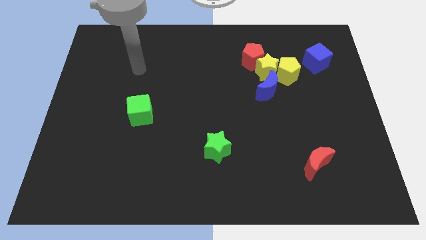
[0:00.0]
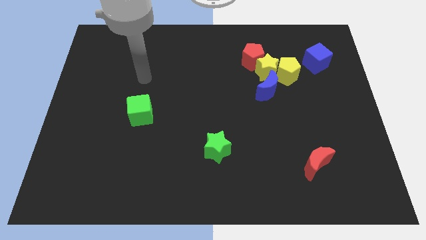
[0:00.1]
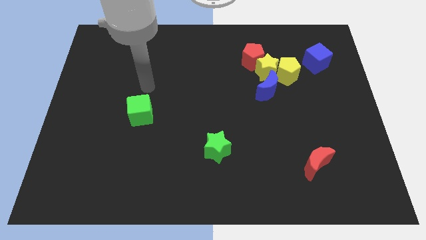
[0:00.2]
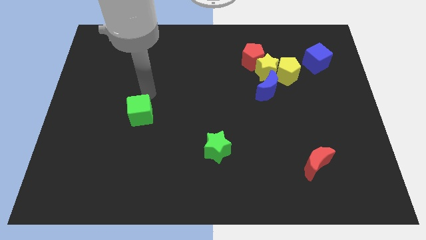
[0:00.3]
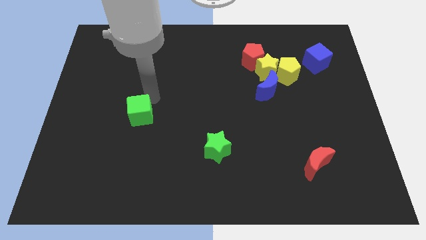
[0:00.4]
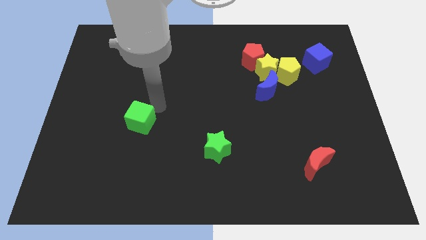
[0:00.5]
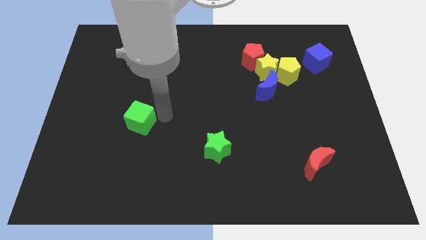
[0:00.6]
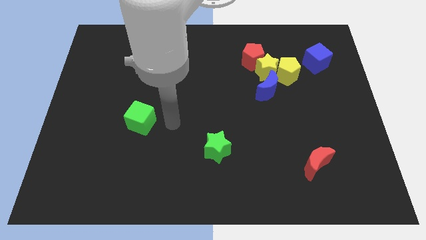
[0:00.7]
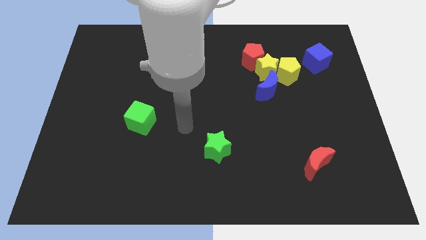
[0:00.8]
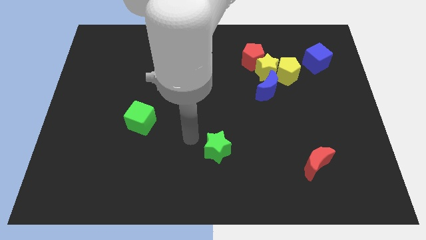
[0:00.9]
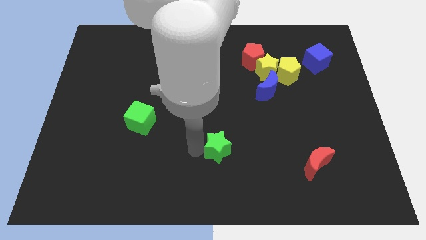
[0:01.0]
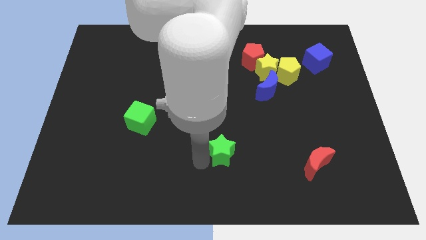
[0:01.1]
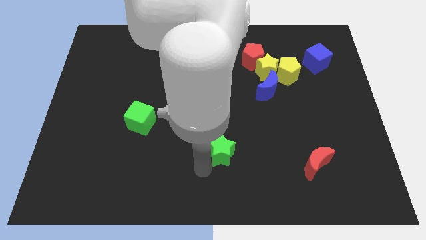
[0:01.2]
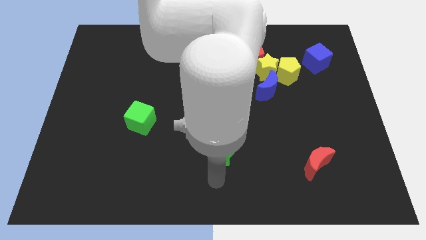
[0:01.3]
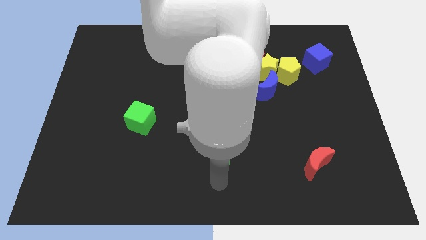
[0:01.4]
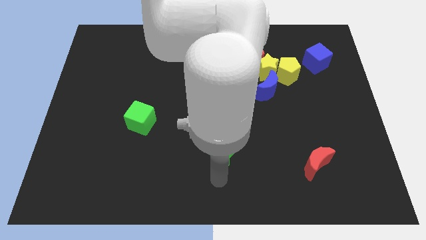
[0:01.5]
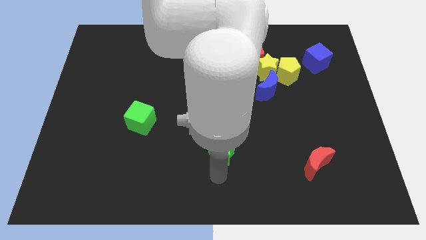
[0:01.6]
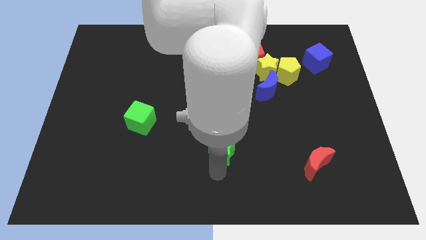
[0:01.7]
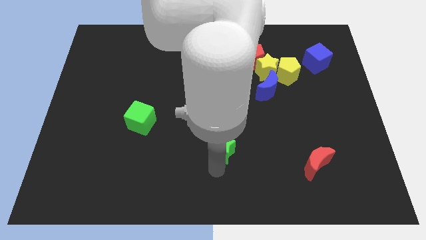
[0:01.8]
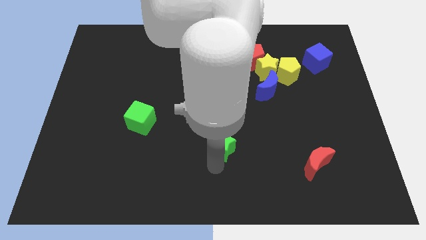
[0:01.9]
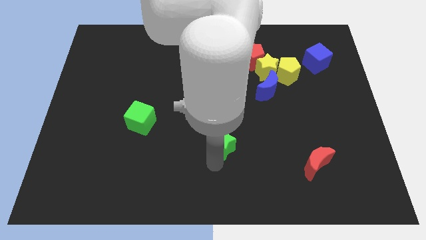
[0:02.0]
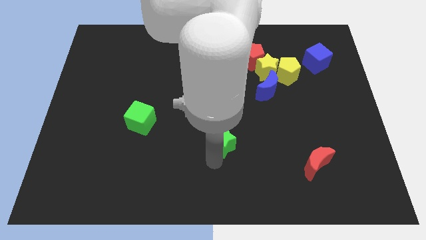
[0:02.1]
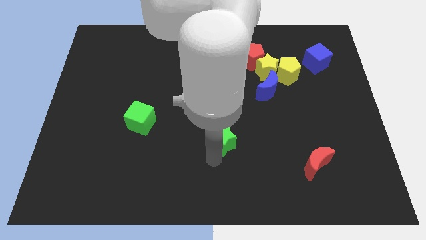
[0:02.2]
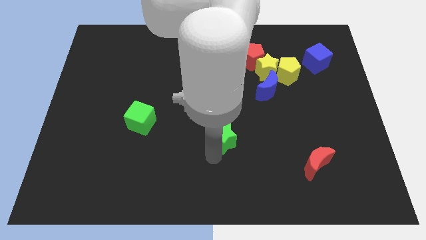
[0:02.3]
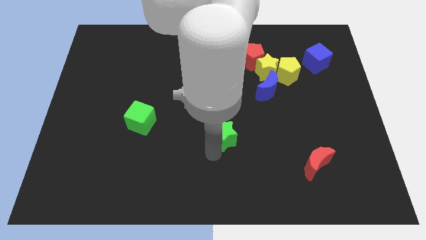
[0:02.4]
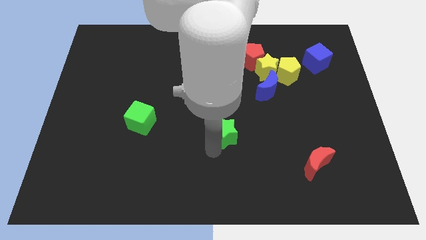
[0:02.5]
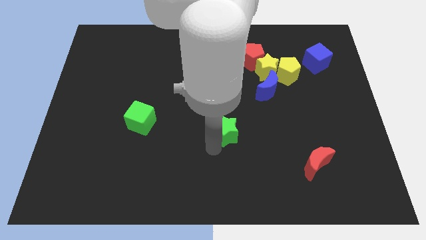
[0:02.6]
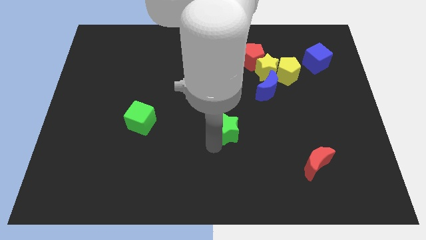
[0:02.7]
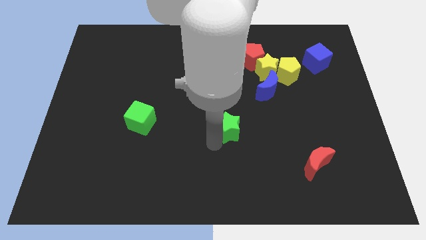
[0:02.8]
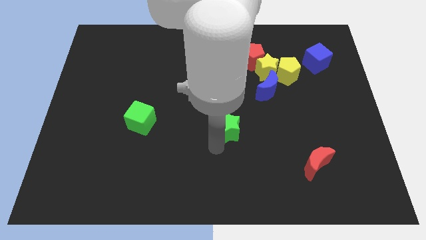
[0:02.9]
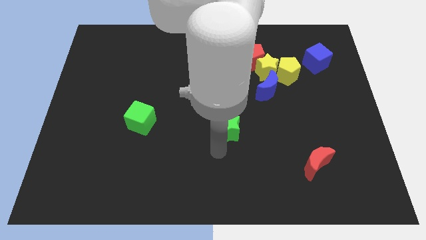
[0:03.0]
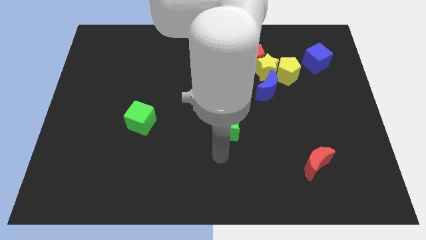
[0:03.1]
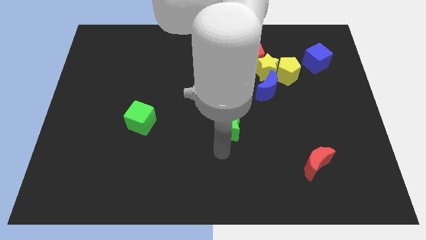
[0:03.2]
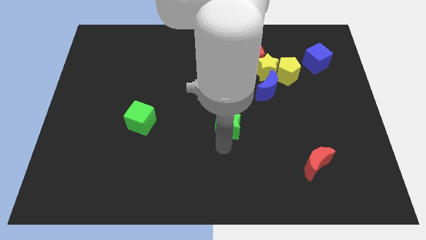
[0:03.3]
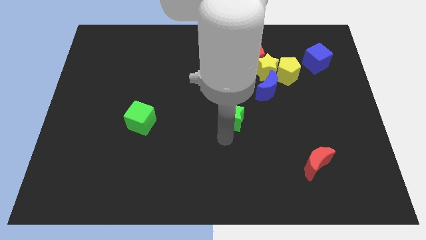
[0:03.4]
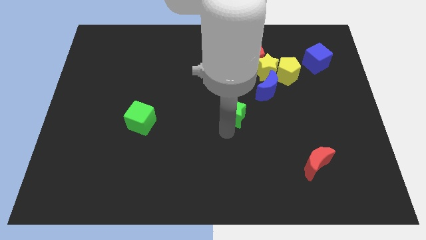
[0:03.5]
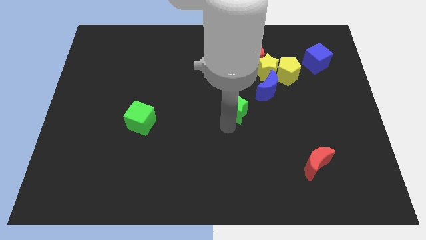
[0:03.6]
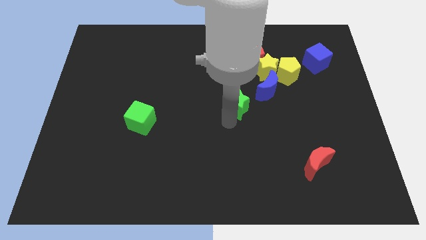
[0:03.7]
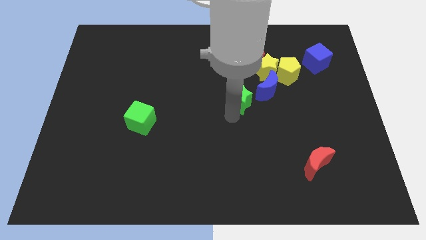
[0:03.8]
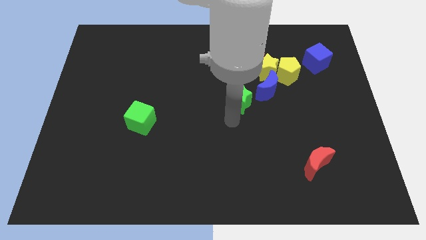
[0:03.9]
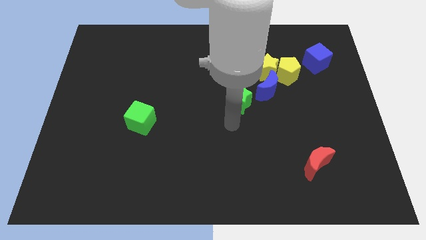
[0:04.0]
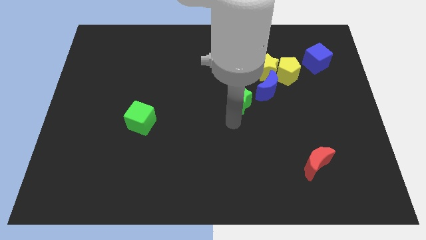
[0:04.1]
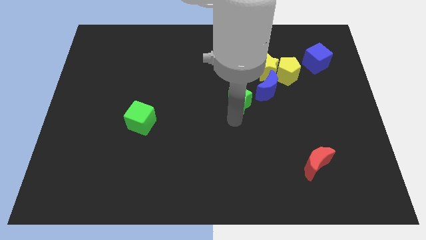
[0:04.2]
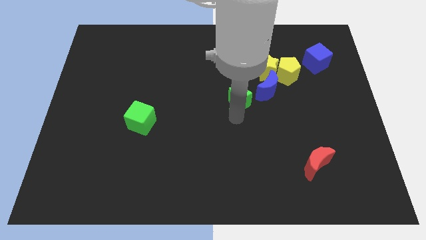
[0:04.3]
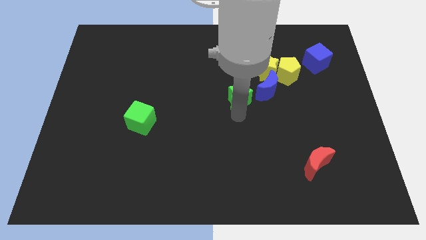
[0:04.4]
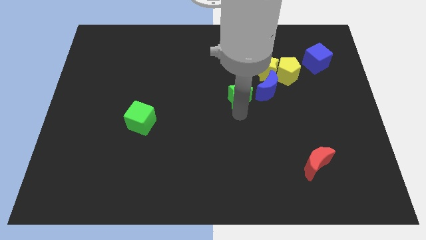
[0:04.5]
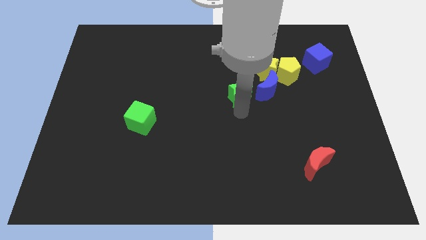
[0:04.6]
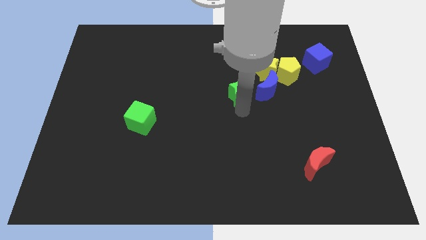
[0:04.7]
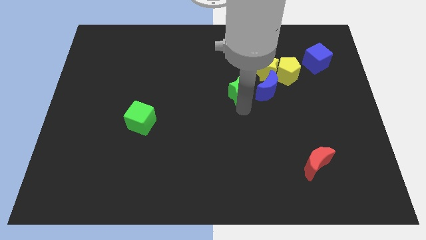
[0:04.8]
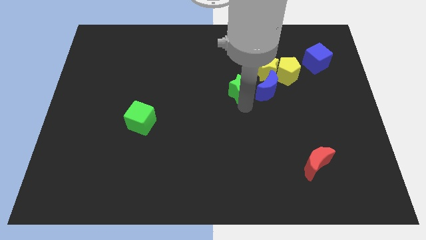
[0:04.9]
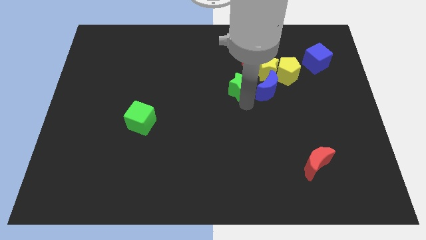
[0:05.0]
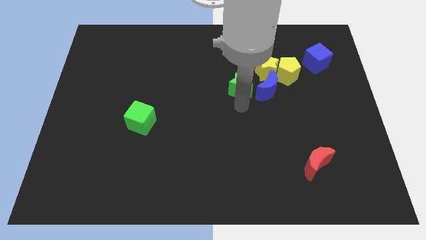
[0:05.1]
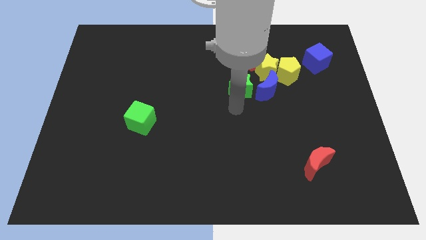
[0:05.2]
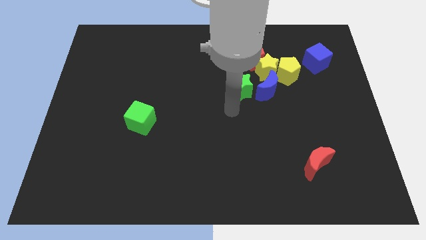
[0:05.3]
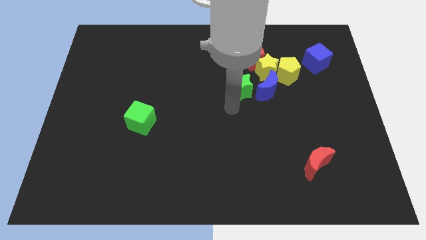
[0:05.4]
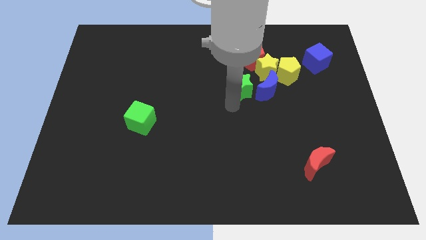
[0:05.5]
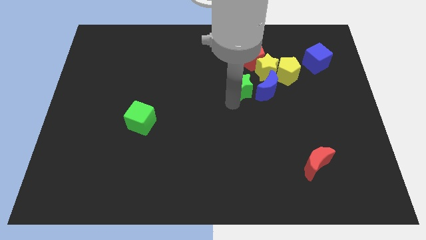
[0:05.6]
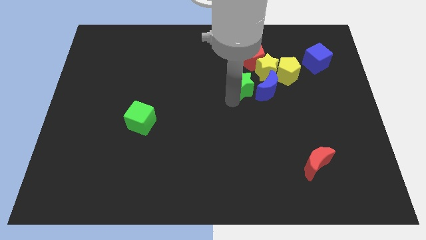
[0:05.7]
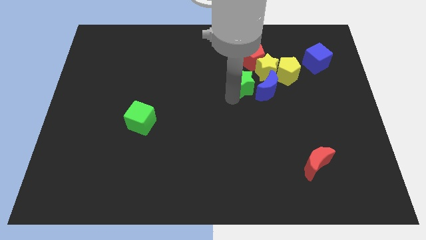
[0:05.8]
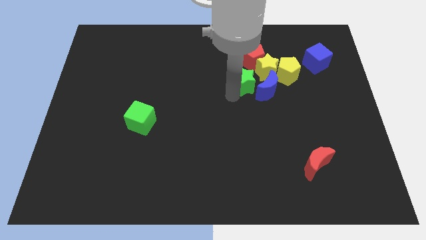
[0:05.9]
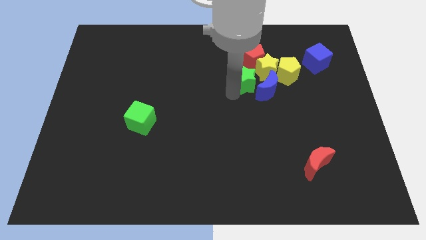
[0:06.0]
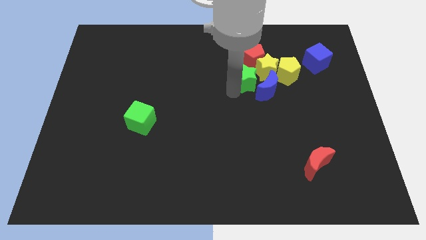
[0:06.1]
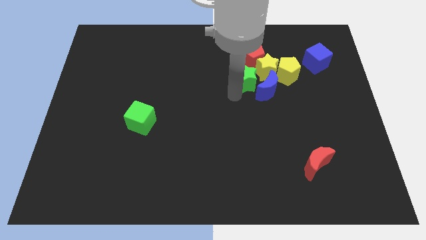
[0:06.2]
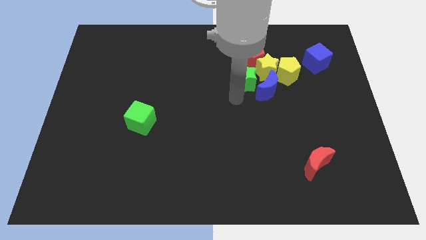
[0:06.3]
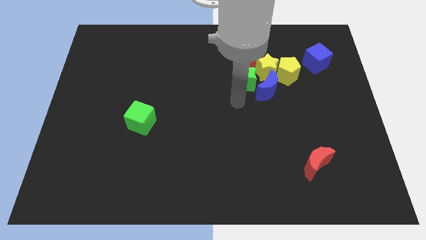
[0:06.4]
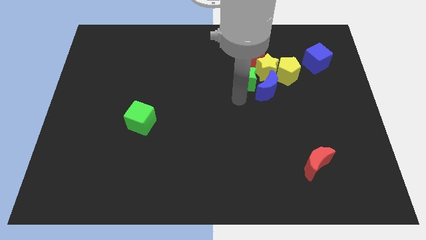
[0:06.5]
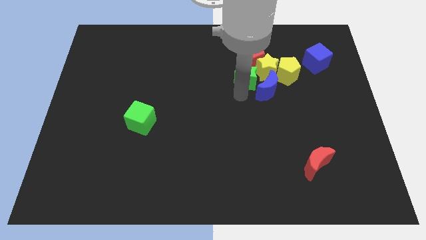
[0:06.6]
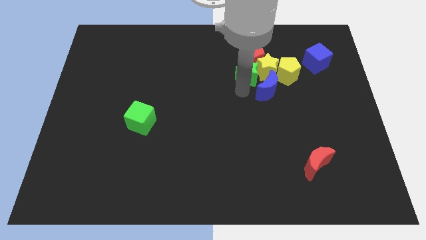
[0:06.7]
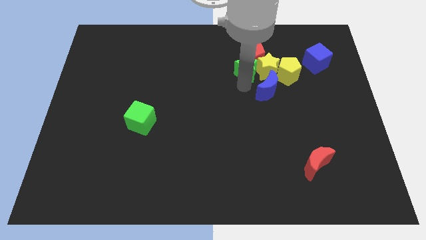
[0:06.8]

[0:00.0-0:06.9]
move the green star towards the red pentagon

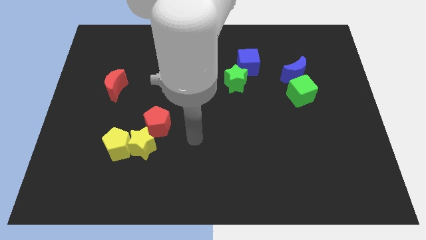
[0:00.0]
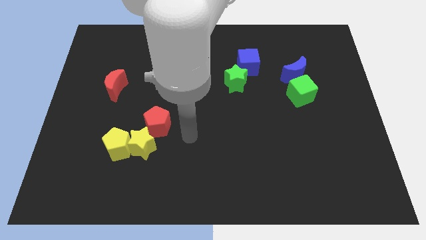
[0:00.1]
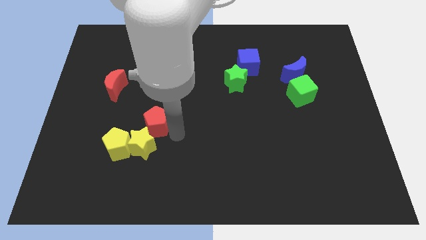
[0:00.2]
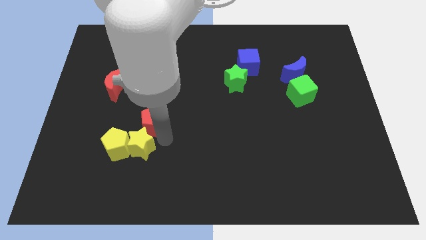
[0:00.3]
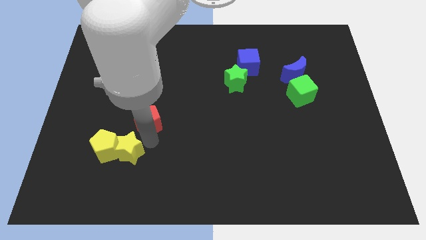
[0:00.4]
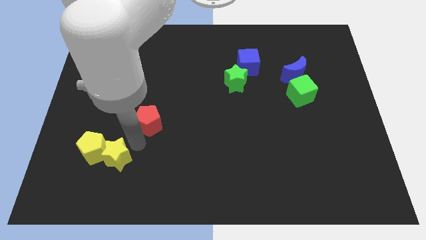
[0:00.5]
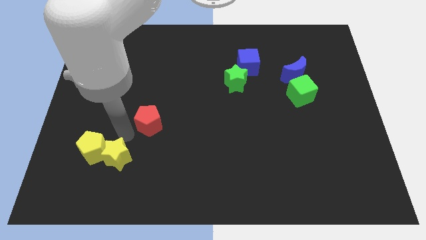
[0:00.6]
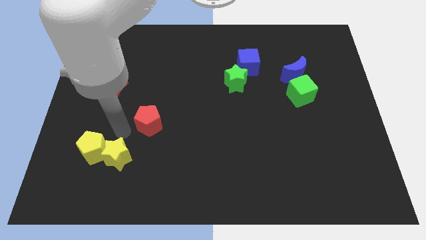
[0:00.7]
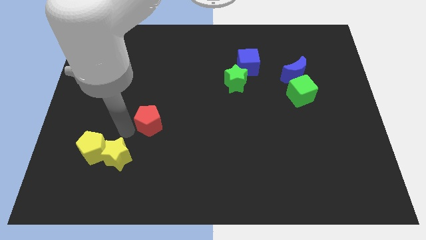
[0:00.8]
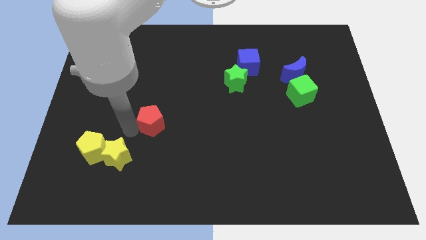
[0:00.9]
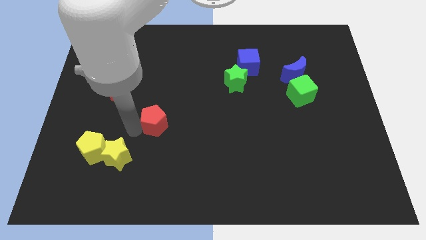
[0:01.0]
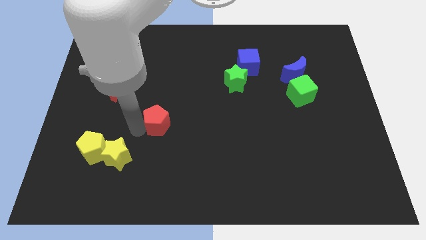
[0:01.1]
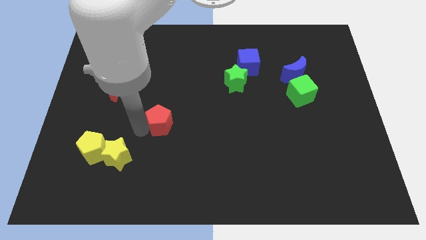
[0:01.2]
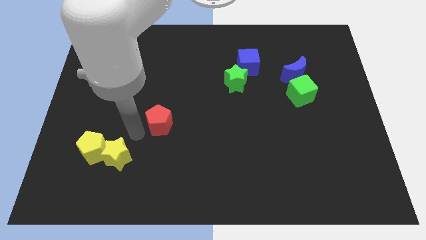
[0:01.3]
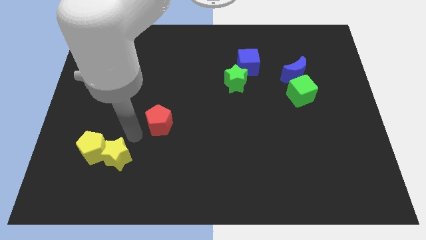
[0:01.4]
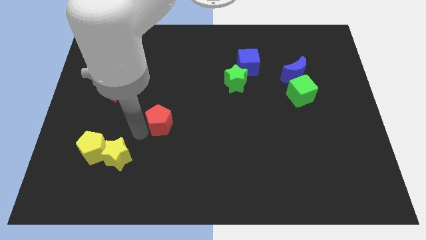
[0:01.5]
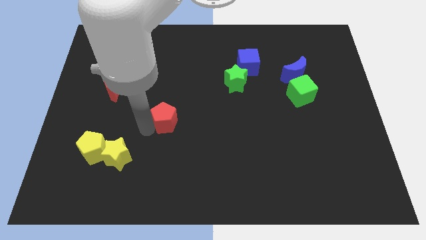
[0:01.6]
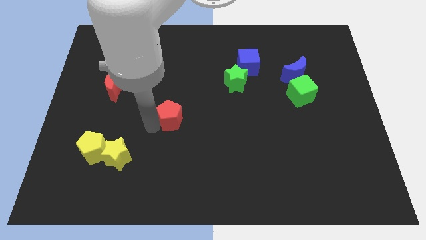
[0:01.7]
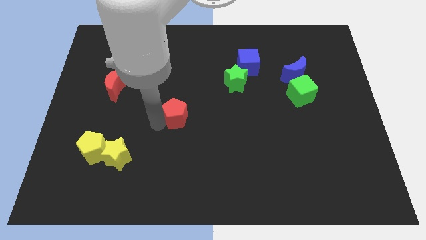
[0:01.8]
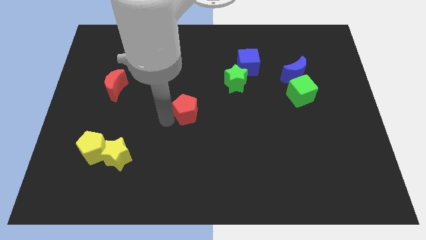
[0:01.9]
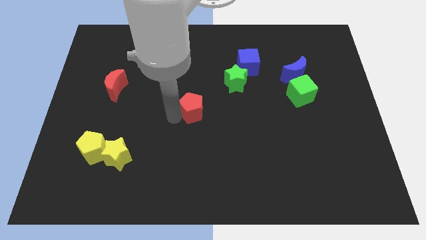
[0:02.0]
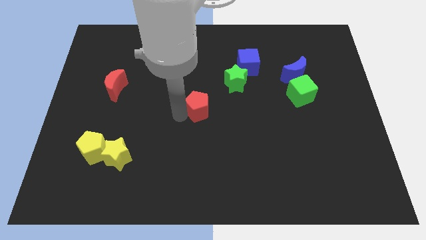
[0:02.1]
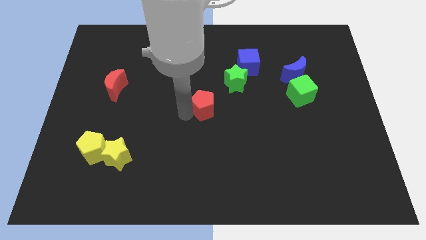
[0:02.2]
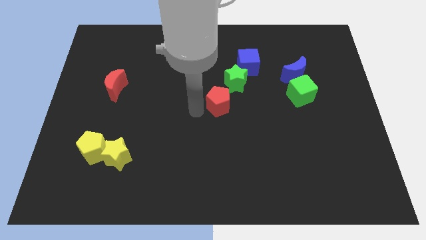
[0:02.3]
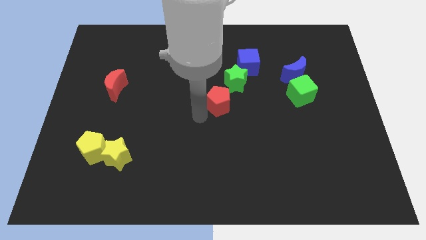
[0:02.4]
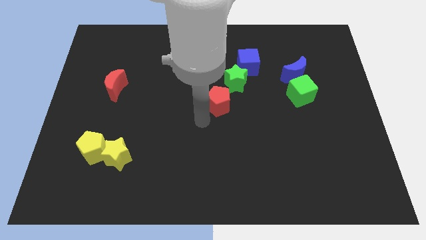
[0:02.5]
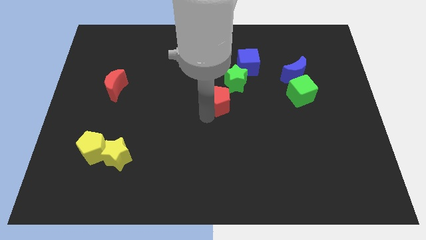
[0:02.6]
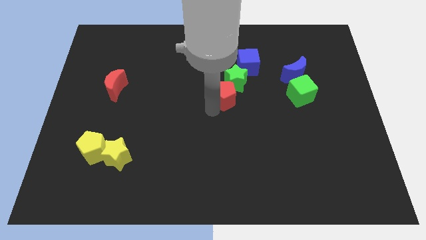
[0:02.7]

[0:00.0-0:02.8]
put the red pentagon to the green star
